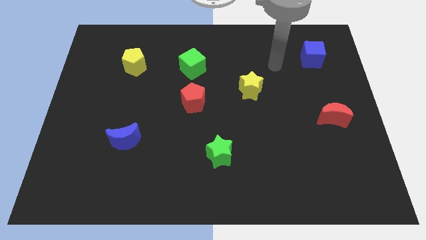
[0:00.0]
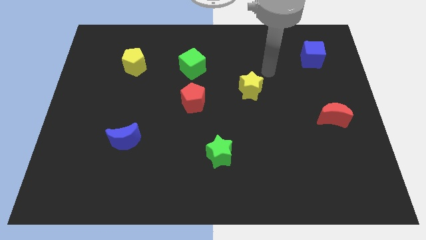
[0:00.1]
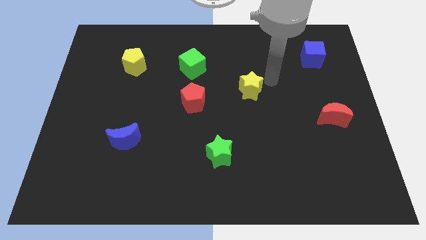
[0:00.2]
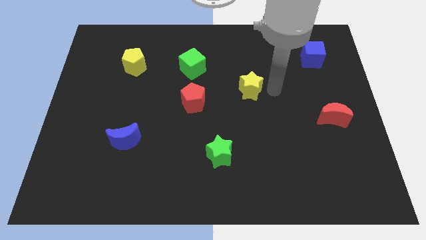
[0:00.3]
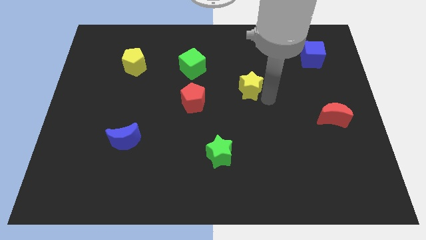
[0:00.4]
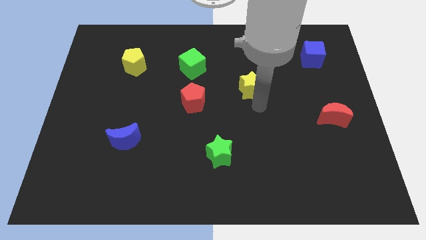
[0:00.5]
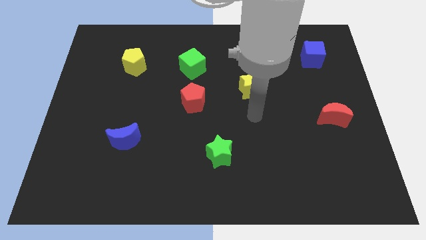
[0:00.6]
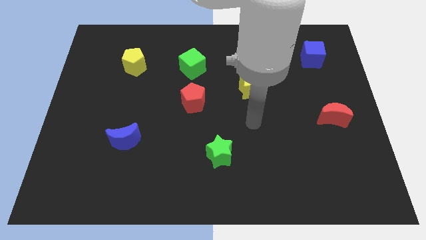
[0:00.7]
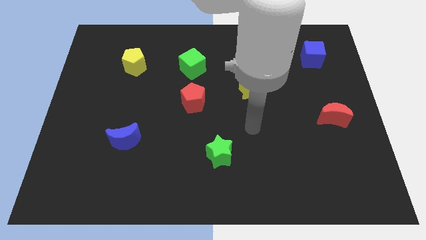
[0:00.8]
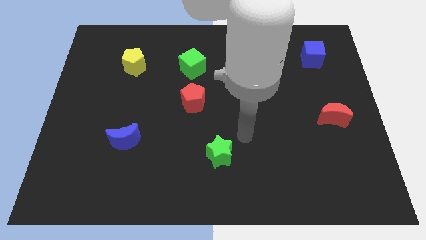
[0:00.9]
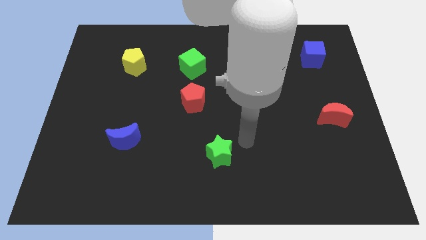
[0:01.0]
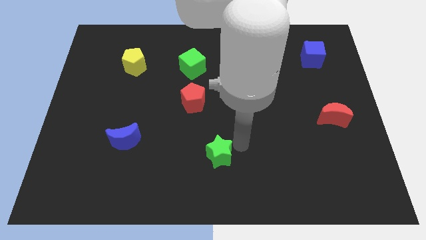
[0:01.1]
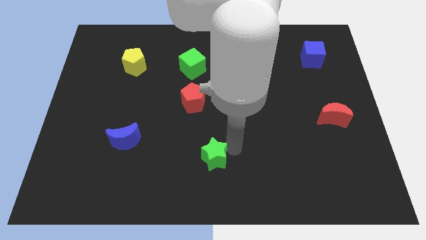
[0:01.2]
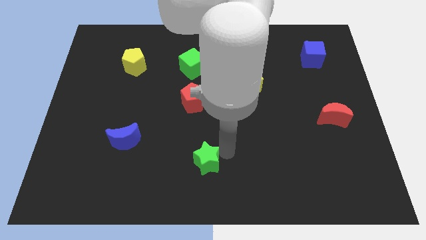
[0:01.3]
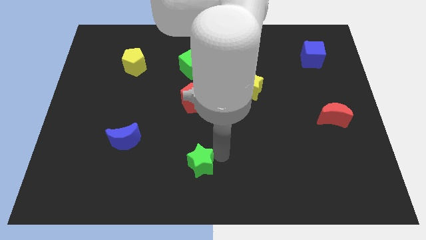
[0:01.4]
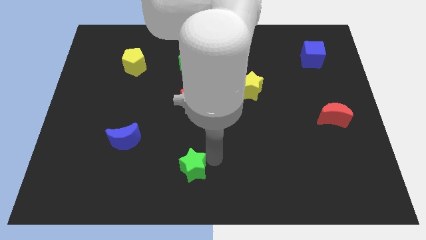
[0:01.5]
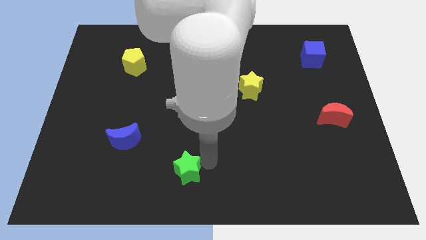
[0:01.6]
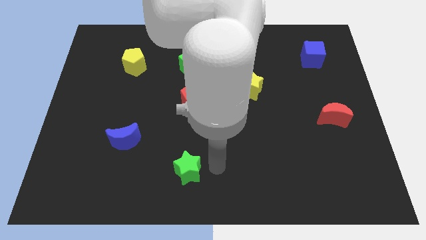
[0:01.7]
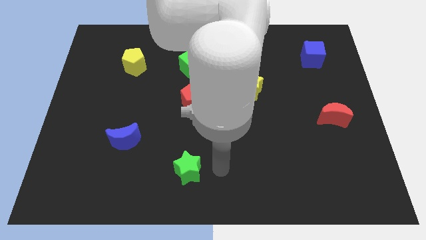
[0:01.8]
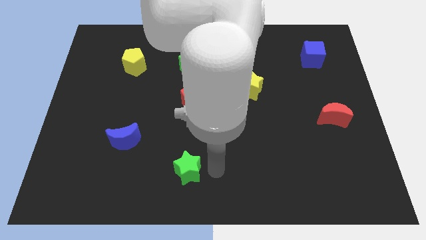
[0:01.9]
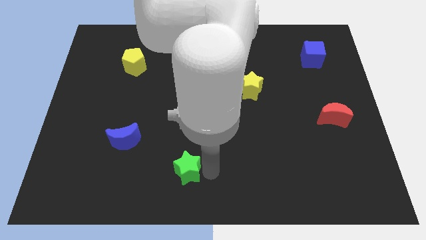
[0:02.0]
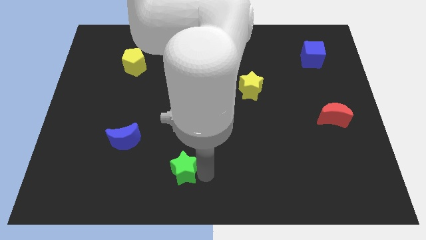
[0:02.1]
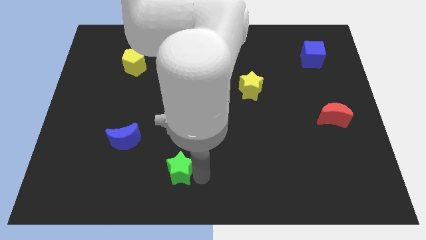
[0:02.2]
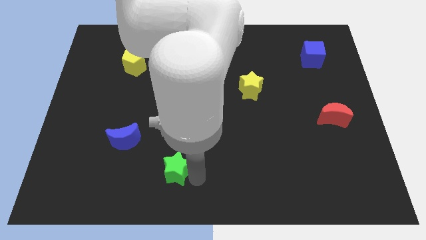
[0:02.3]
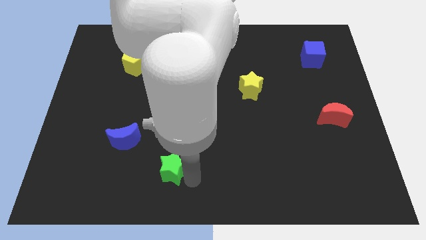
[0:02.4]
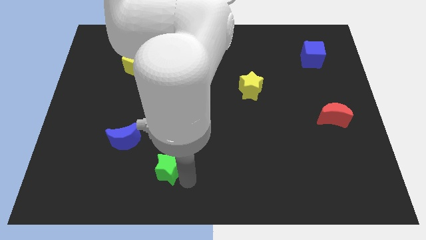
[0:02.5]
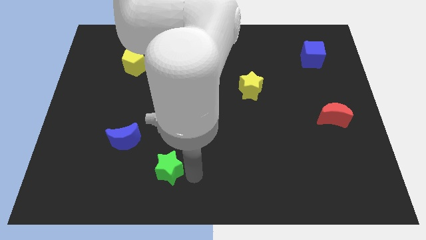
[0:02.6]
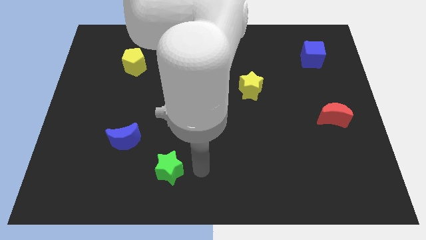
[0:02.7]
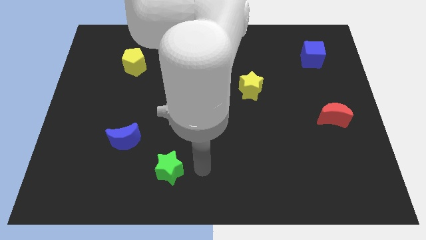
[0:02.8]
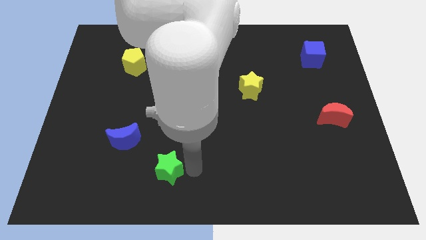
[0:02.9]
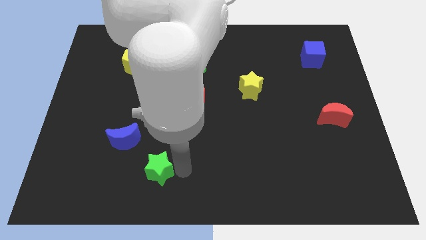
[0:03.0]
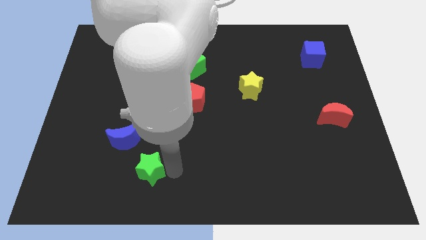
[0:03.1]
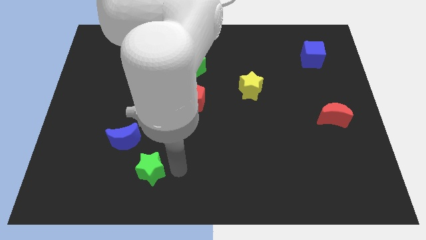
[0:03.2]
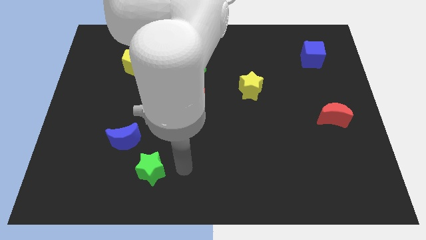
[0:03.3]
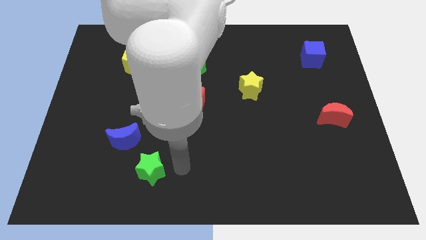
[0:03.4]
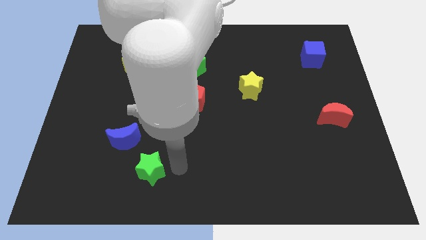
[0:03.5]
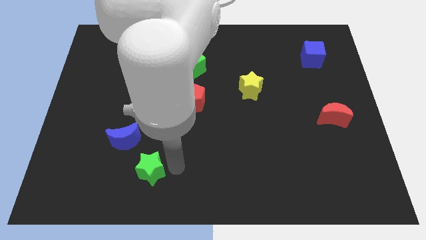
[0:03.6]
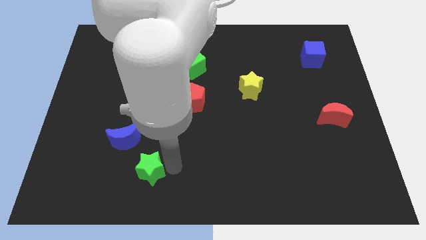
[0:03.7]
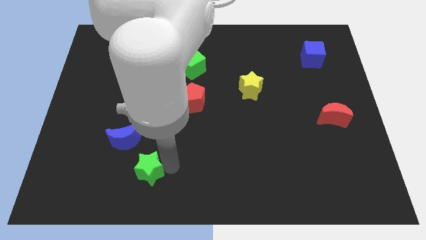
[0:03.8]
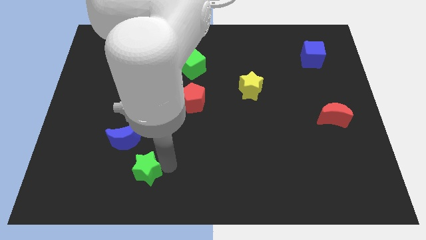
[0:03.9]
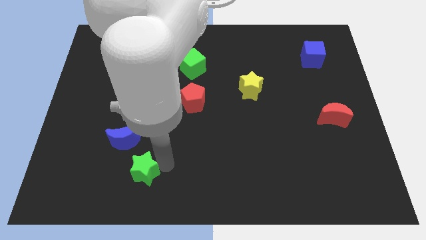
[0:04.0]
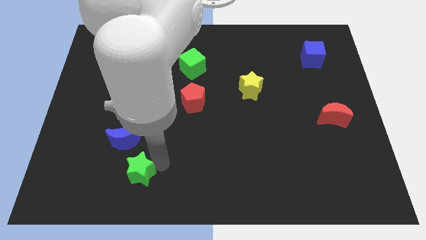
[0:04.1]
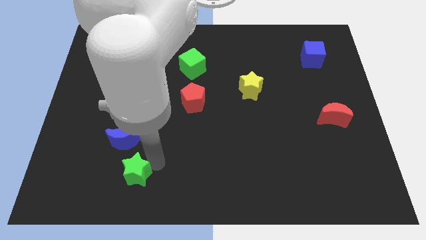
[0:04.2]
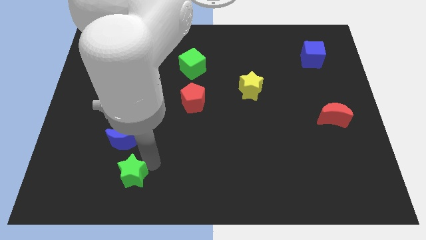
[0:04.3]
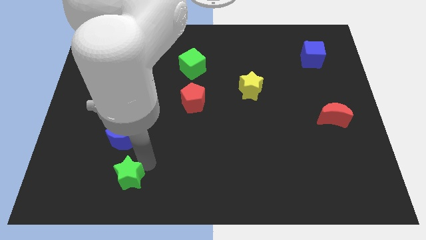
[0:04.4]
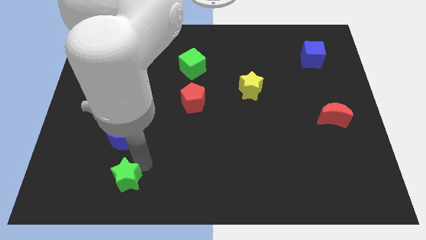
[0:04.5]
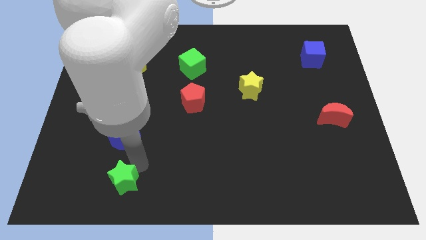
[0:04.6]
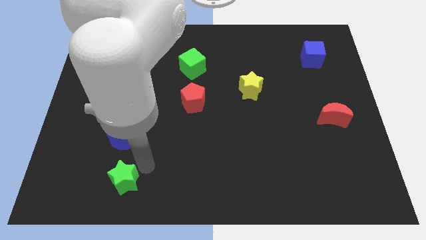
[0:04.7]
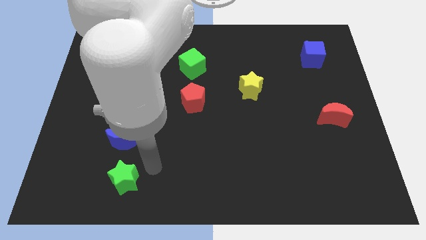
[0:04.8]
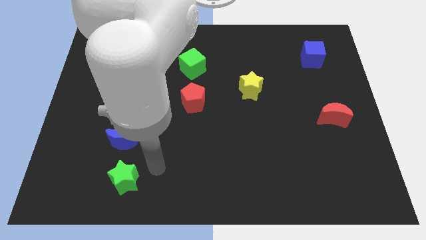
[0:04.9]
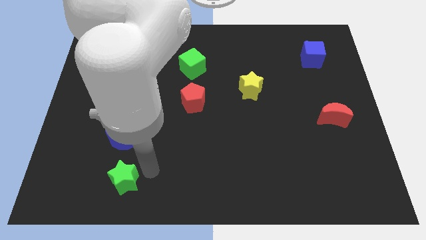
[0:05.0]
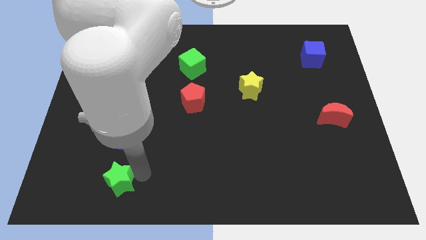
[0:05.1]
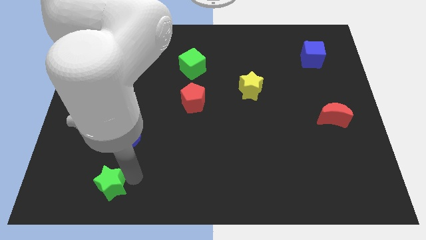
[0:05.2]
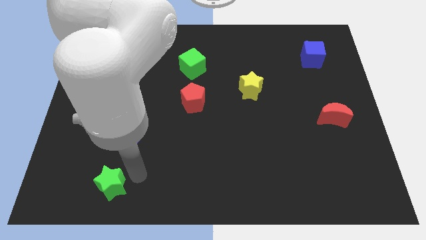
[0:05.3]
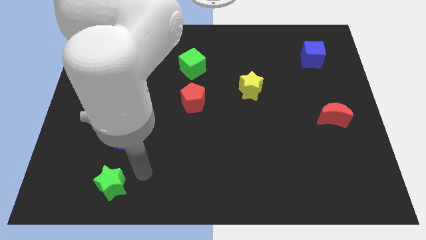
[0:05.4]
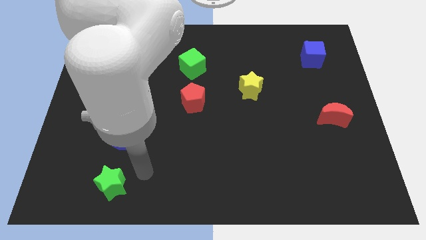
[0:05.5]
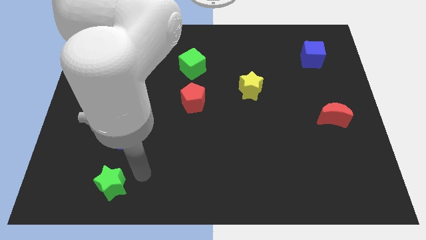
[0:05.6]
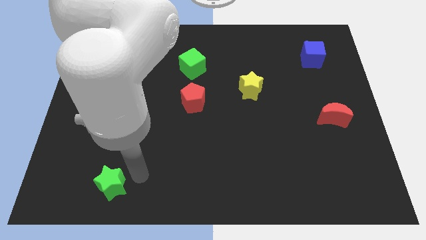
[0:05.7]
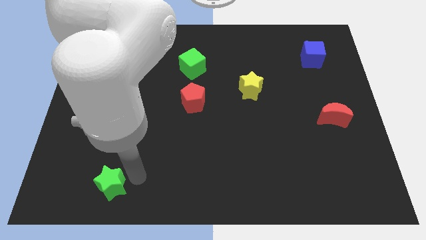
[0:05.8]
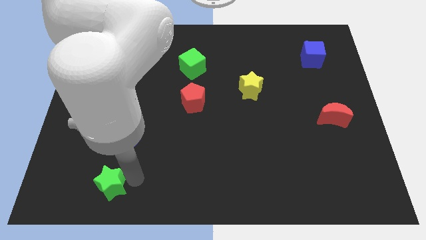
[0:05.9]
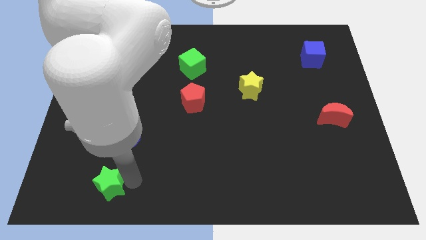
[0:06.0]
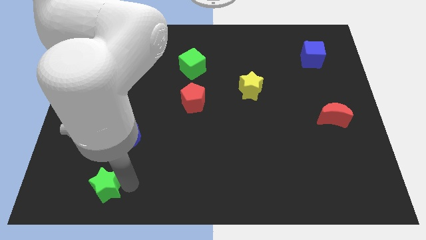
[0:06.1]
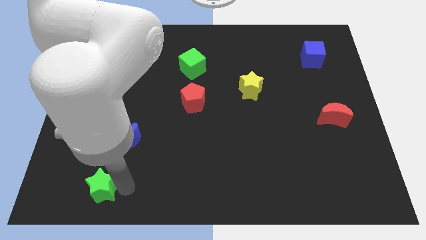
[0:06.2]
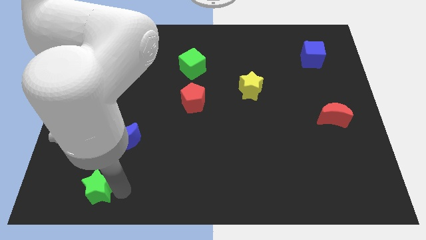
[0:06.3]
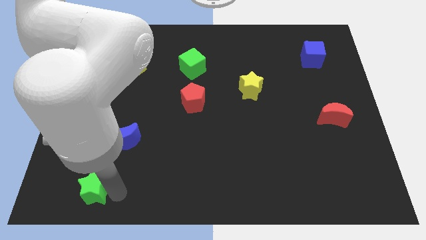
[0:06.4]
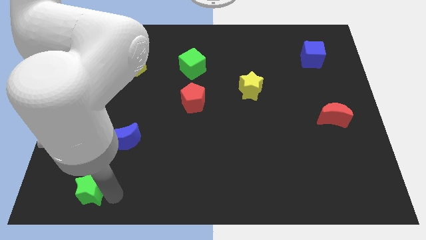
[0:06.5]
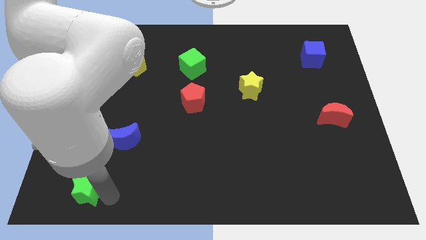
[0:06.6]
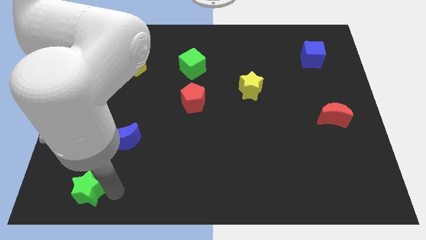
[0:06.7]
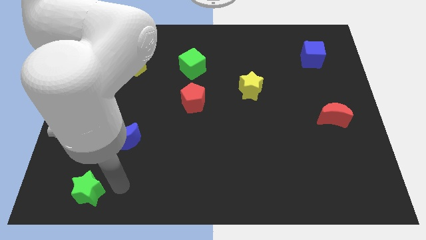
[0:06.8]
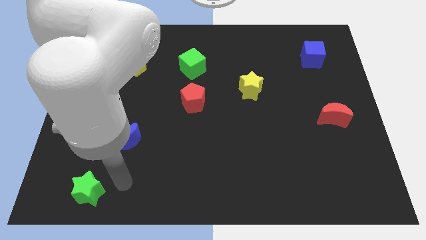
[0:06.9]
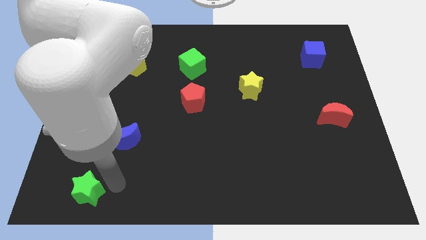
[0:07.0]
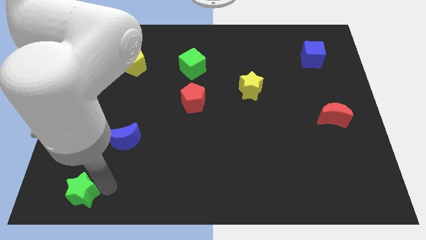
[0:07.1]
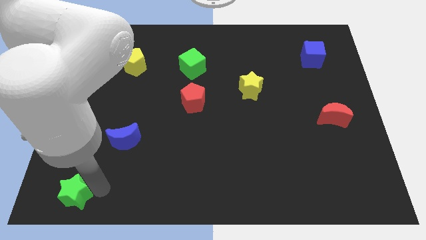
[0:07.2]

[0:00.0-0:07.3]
move the green star to the bottom left of the board
